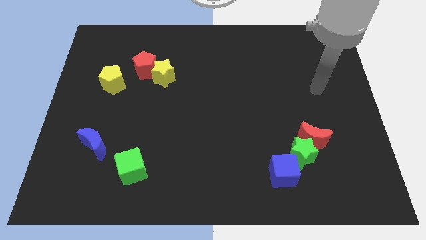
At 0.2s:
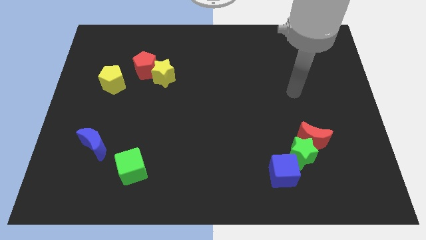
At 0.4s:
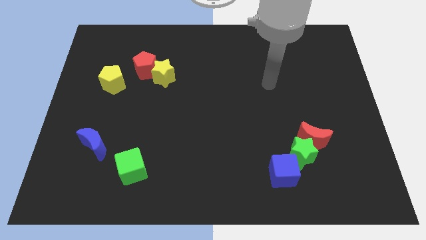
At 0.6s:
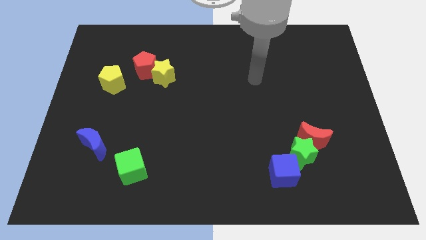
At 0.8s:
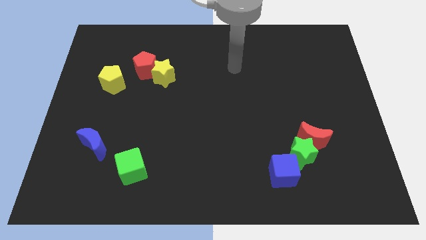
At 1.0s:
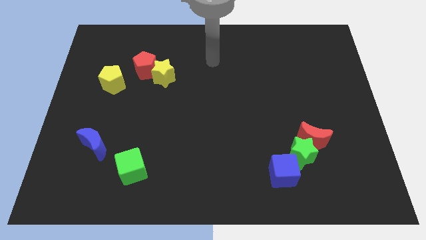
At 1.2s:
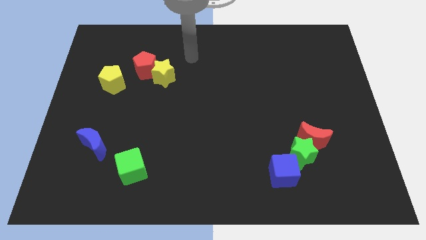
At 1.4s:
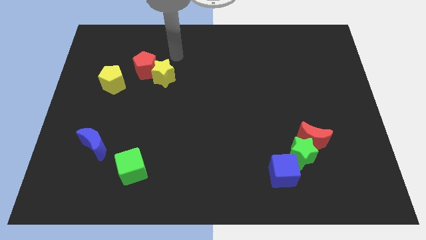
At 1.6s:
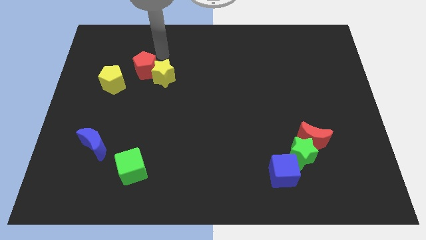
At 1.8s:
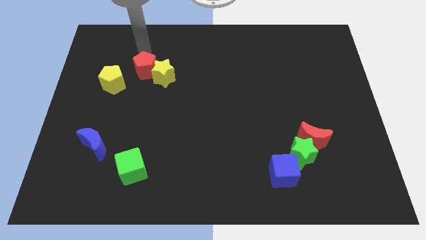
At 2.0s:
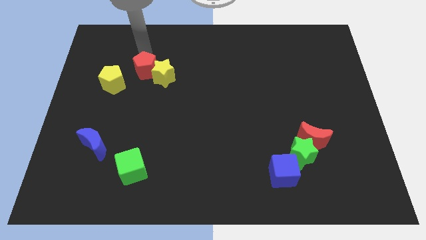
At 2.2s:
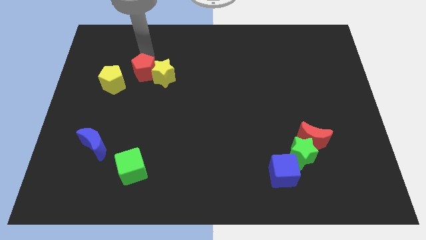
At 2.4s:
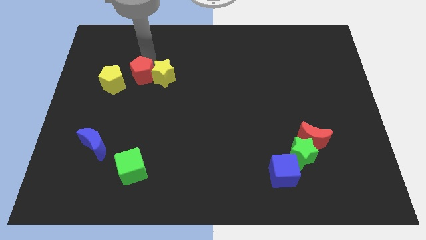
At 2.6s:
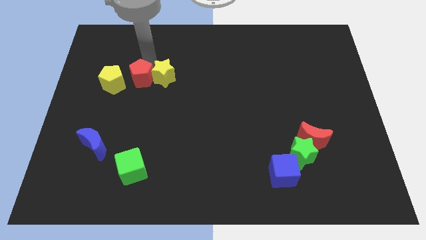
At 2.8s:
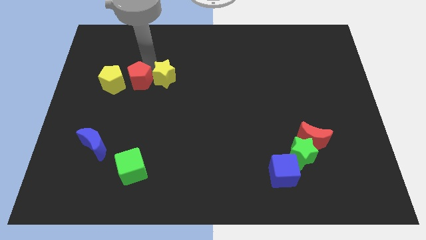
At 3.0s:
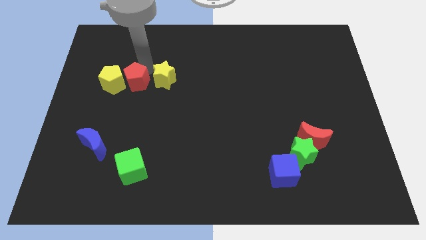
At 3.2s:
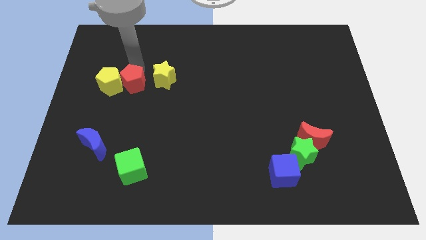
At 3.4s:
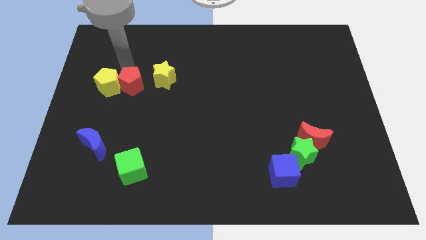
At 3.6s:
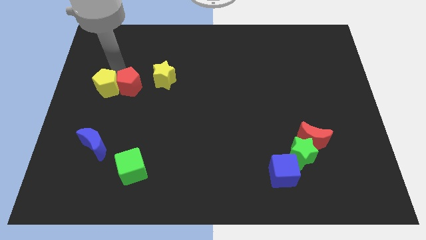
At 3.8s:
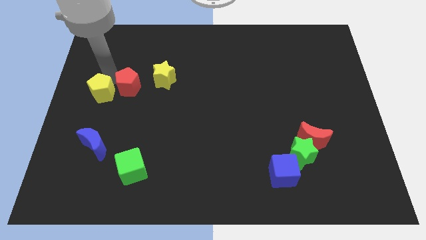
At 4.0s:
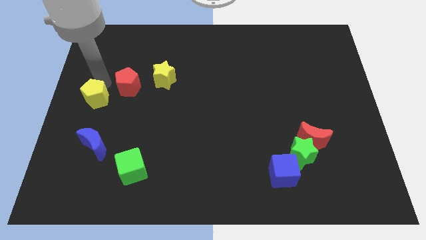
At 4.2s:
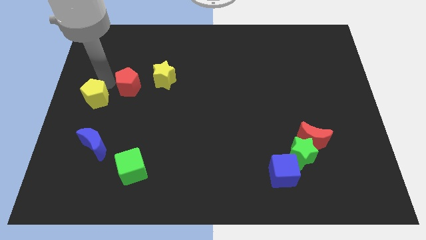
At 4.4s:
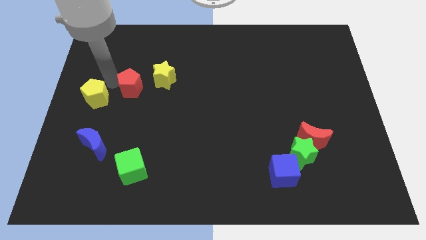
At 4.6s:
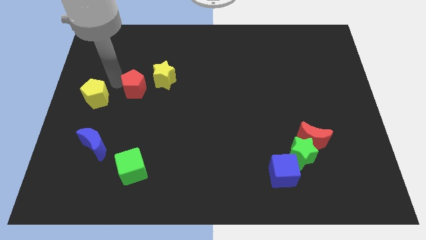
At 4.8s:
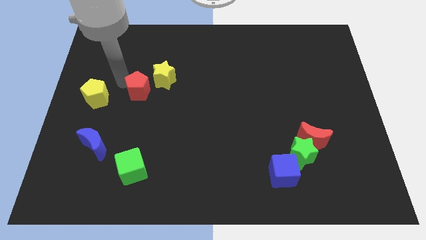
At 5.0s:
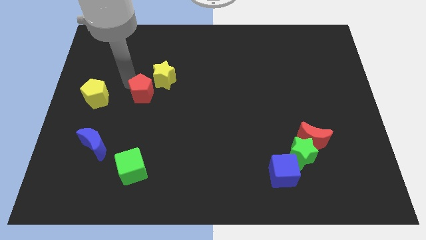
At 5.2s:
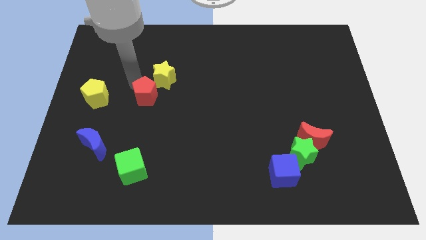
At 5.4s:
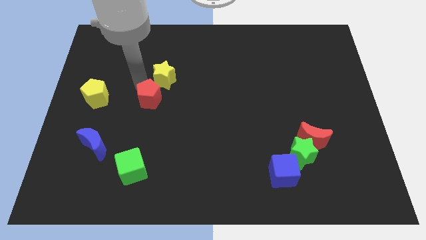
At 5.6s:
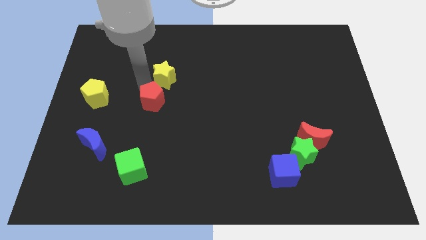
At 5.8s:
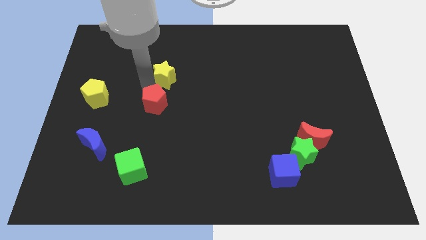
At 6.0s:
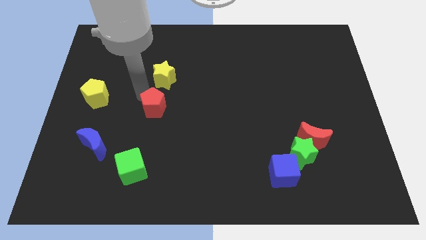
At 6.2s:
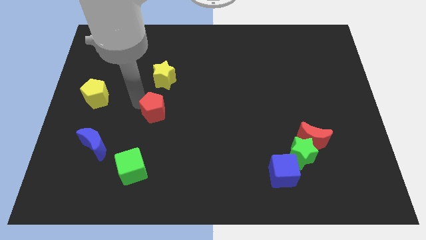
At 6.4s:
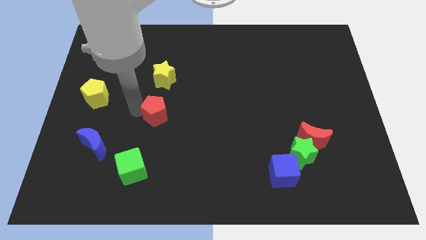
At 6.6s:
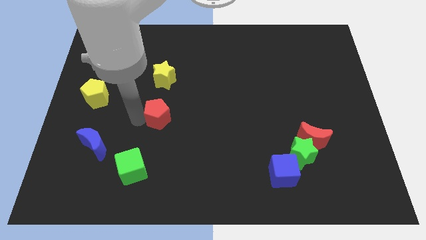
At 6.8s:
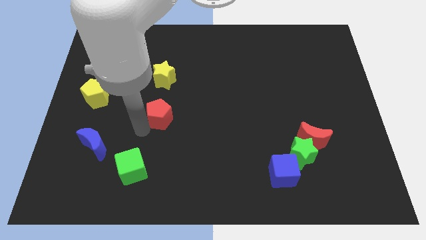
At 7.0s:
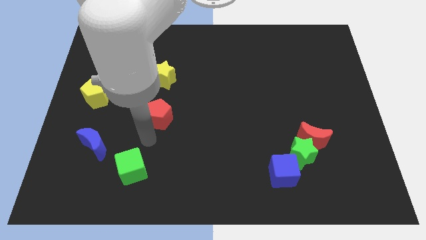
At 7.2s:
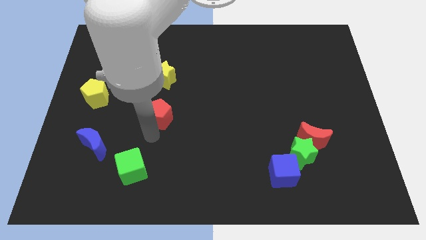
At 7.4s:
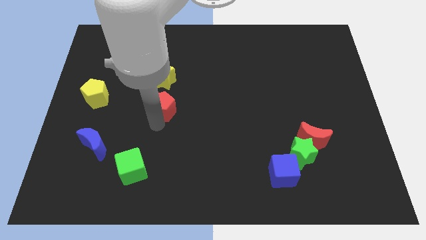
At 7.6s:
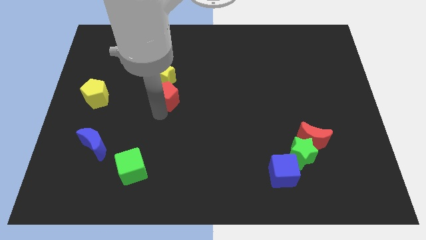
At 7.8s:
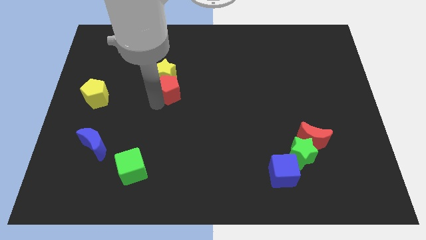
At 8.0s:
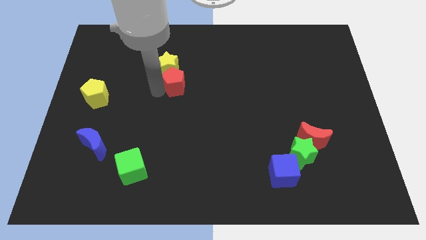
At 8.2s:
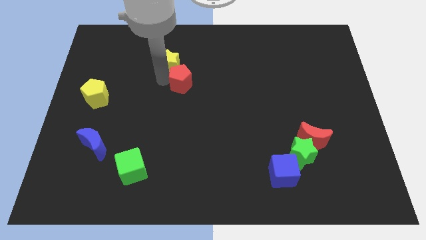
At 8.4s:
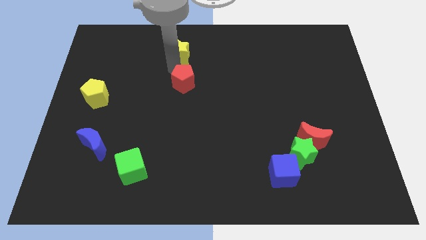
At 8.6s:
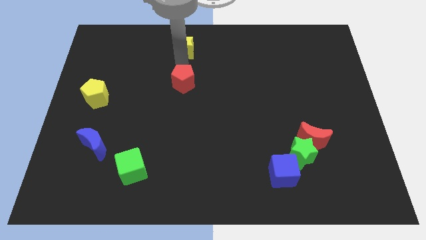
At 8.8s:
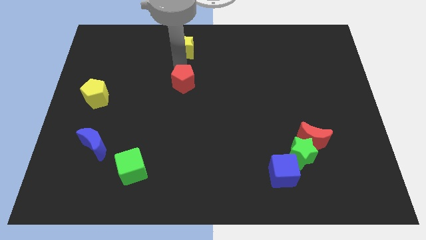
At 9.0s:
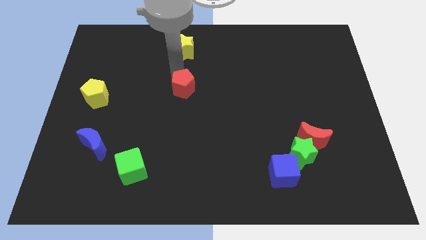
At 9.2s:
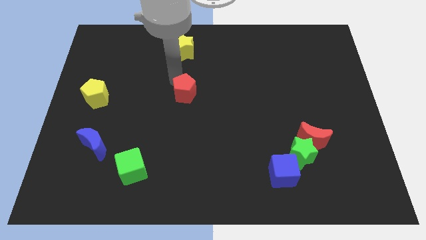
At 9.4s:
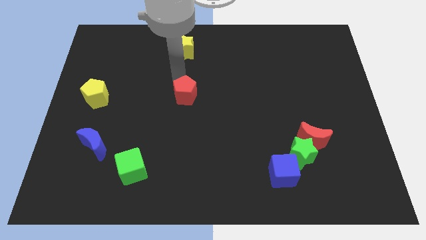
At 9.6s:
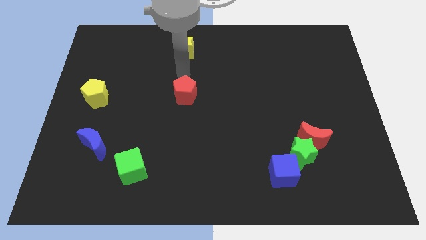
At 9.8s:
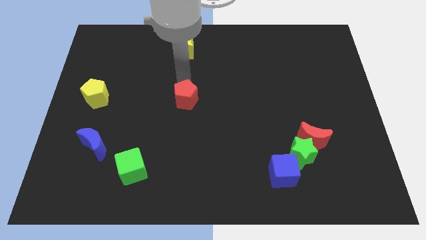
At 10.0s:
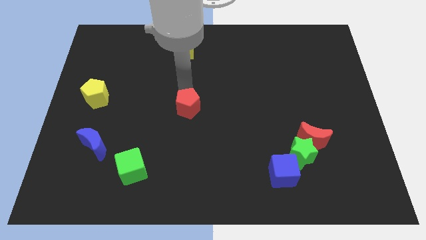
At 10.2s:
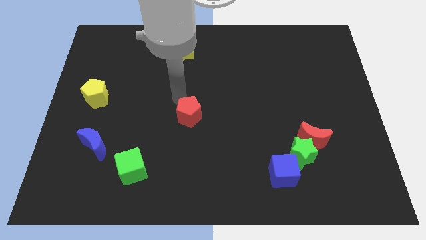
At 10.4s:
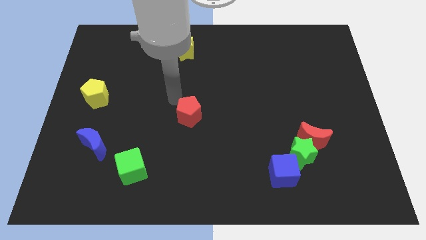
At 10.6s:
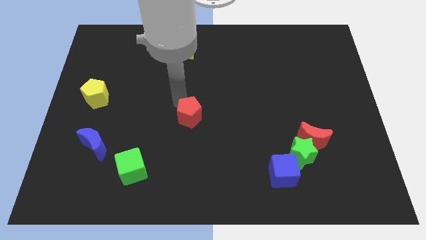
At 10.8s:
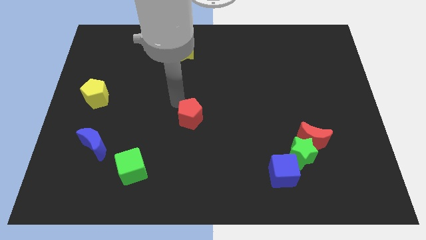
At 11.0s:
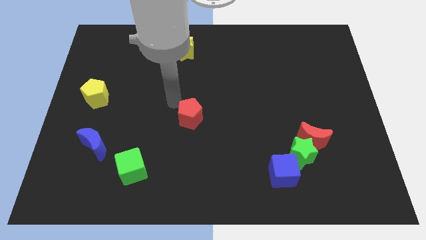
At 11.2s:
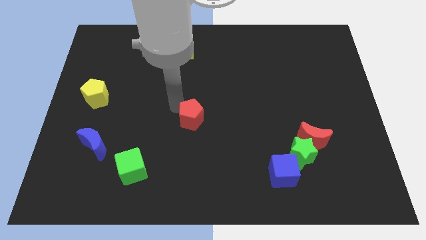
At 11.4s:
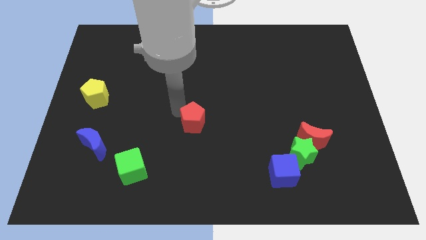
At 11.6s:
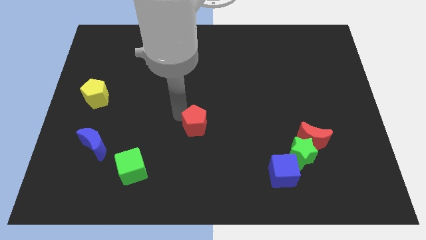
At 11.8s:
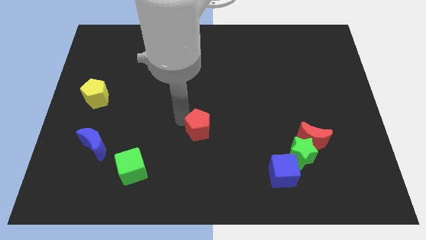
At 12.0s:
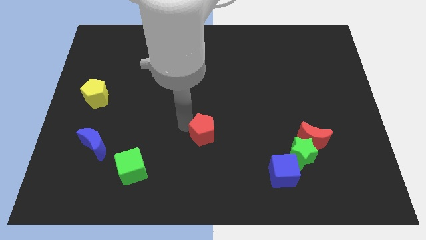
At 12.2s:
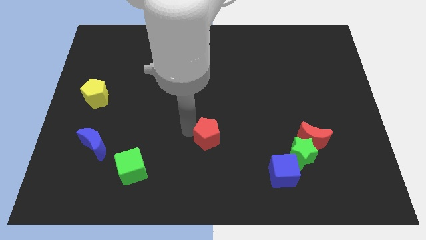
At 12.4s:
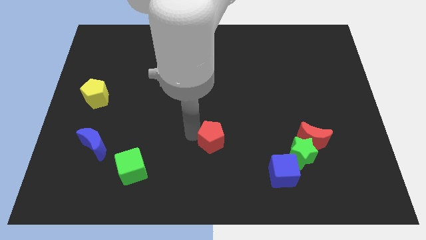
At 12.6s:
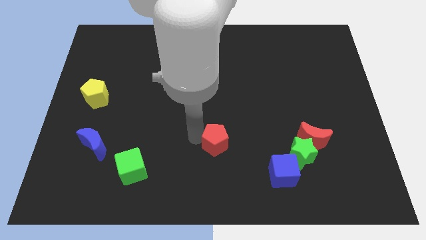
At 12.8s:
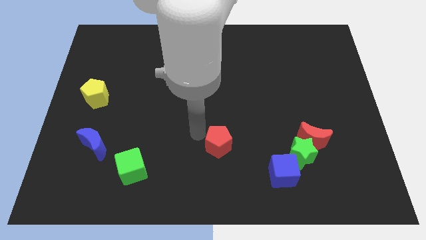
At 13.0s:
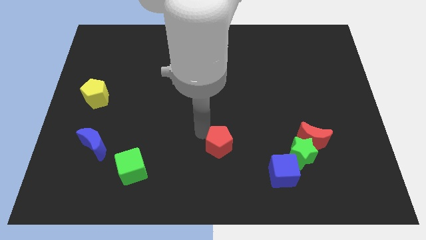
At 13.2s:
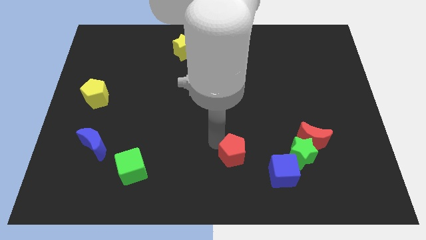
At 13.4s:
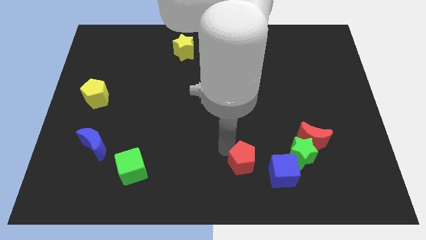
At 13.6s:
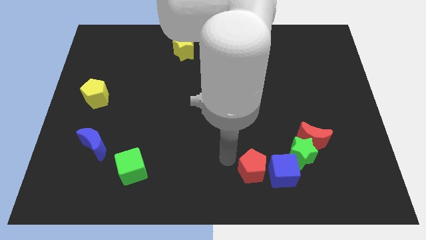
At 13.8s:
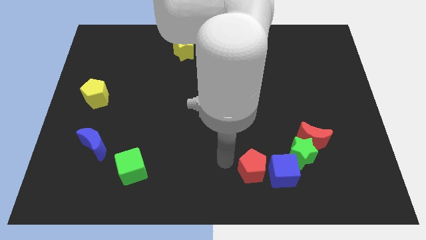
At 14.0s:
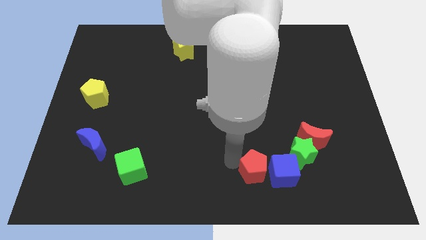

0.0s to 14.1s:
push the red pentagon to the bottom left of the green star
